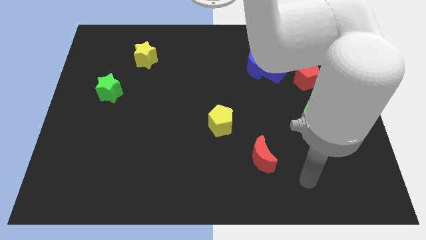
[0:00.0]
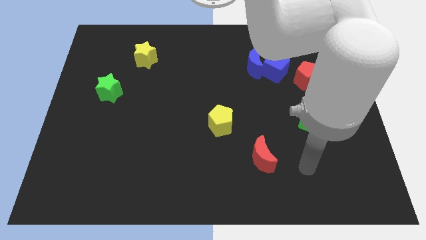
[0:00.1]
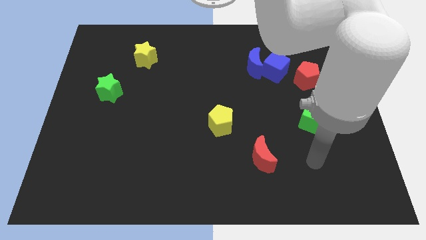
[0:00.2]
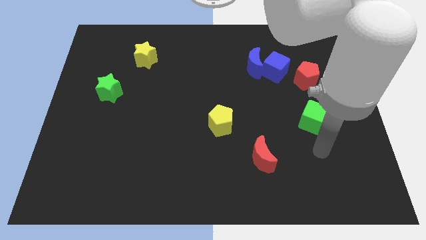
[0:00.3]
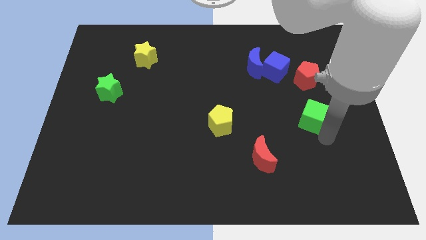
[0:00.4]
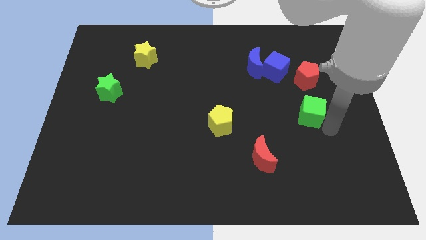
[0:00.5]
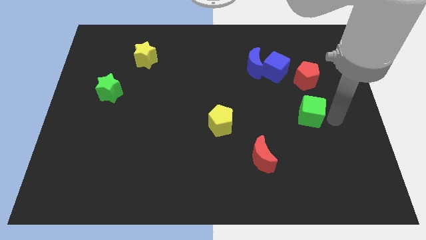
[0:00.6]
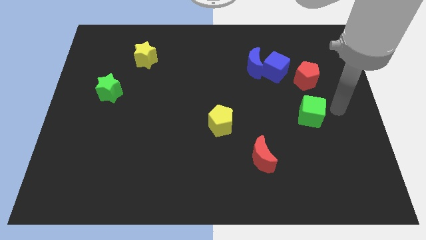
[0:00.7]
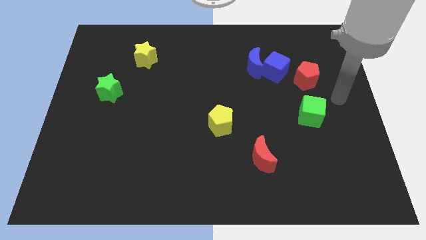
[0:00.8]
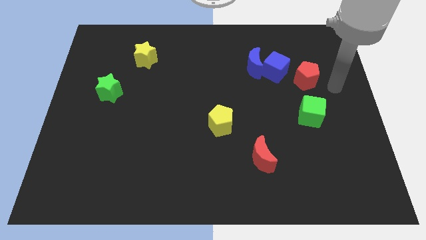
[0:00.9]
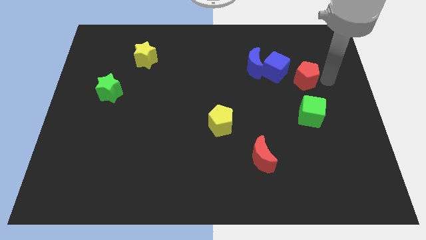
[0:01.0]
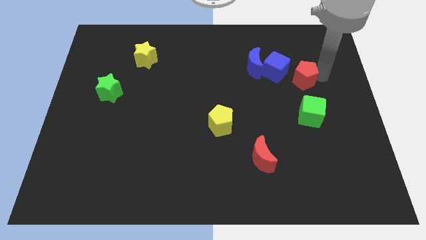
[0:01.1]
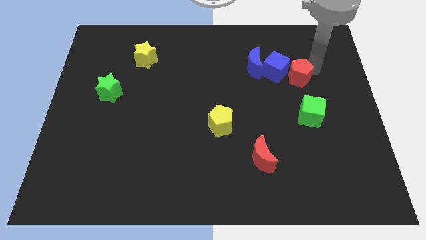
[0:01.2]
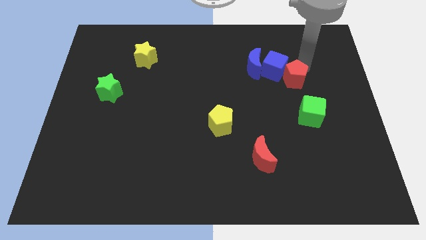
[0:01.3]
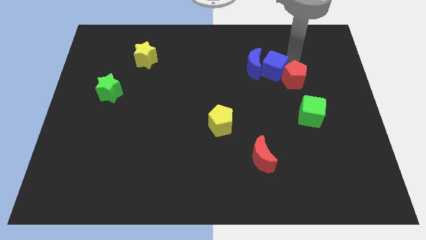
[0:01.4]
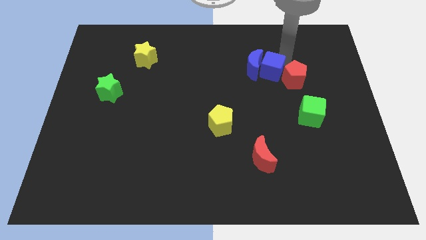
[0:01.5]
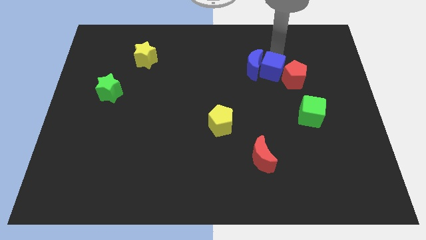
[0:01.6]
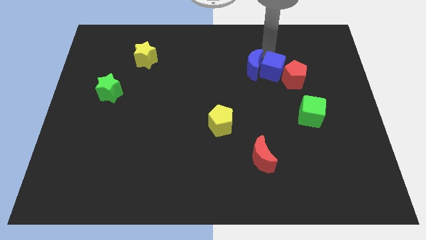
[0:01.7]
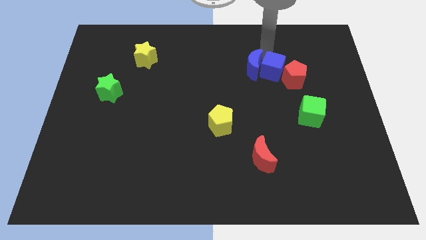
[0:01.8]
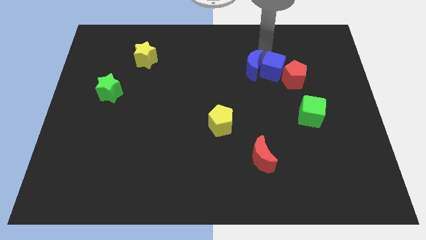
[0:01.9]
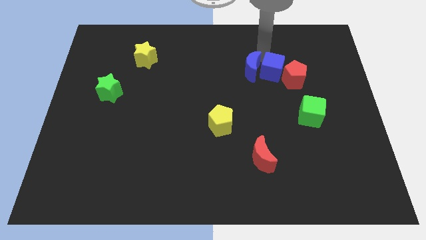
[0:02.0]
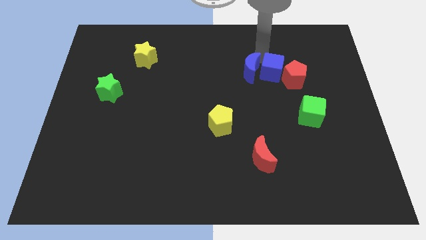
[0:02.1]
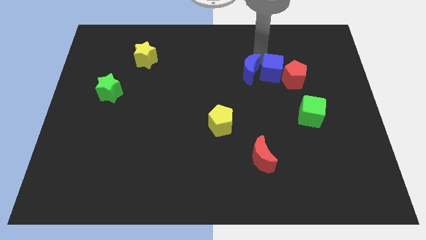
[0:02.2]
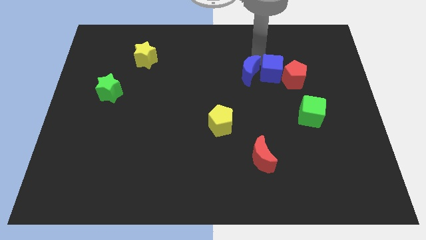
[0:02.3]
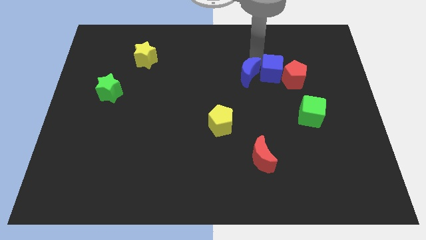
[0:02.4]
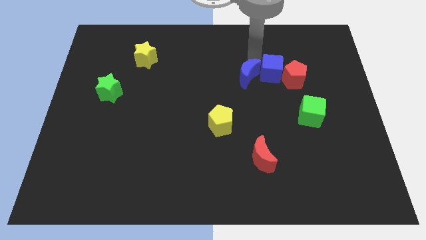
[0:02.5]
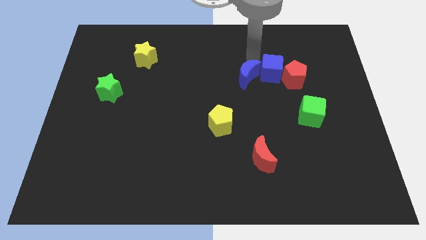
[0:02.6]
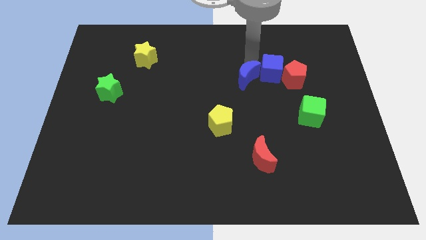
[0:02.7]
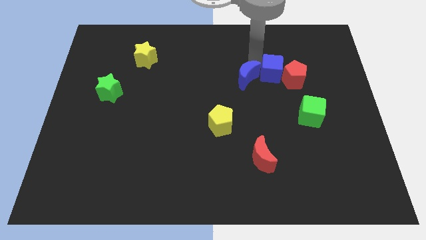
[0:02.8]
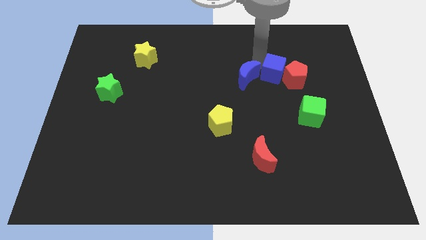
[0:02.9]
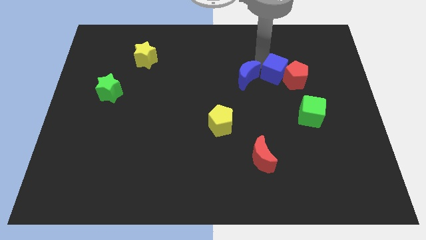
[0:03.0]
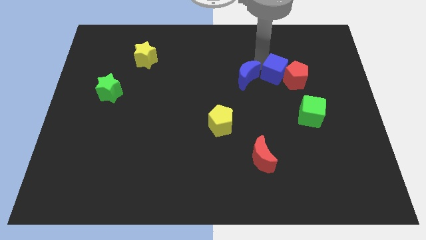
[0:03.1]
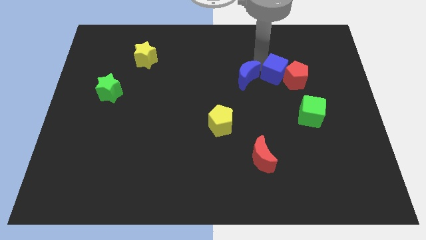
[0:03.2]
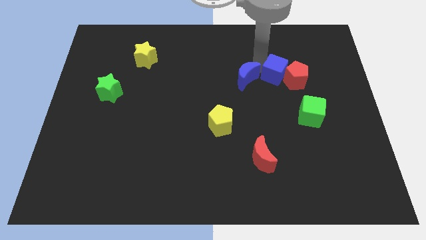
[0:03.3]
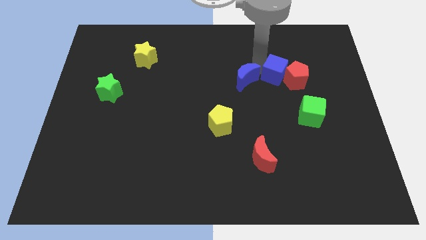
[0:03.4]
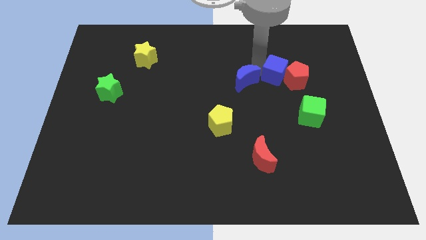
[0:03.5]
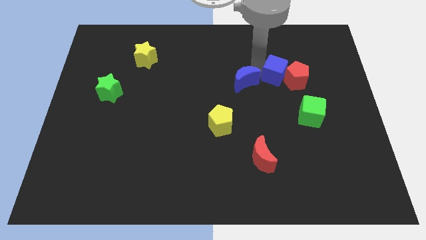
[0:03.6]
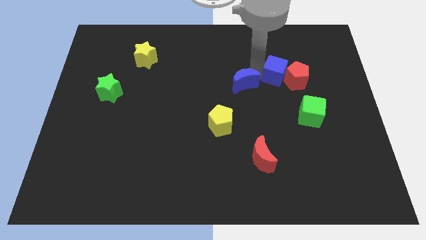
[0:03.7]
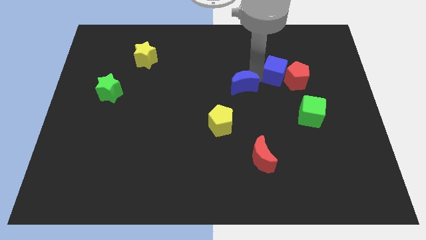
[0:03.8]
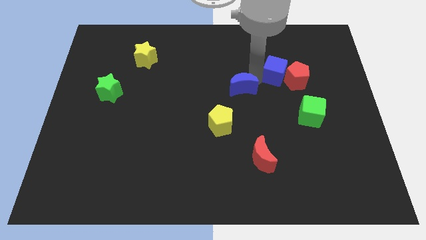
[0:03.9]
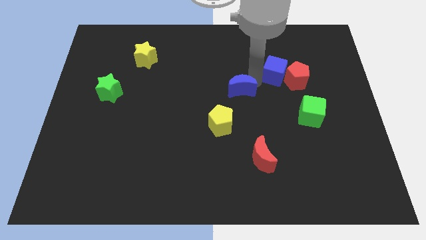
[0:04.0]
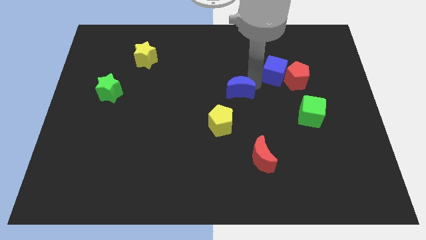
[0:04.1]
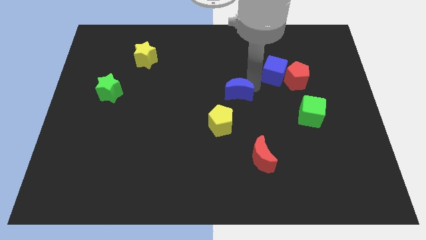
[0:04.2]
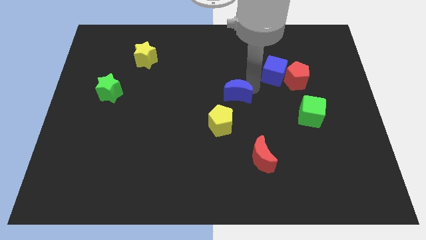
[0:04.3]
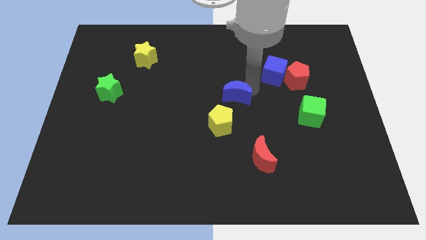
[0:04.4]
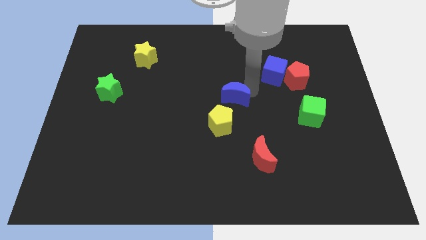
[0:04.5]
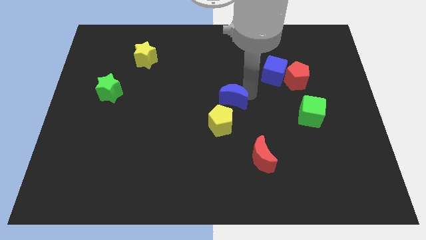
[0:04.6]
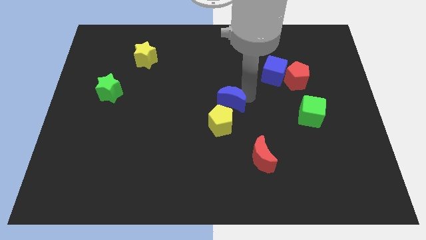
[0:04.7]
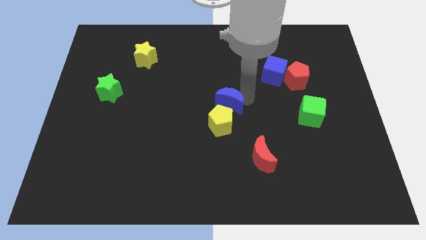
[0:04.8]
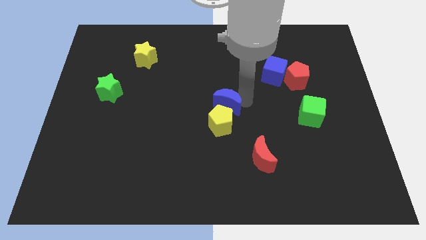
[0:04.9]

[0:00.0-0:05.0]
put the blue moon next to the yellow pentagon

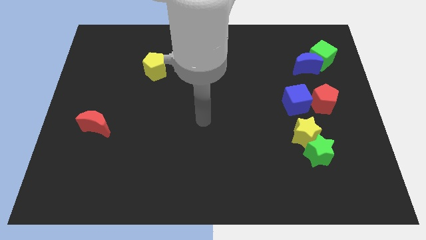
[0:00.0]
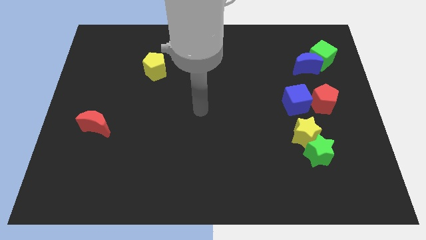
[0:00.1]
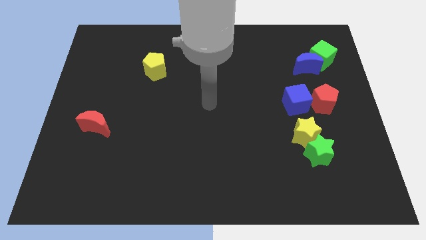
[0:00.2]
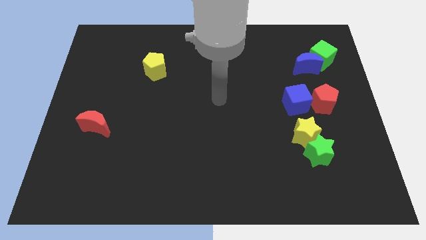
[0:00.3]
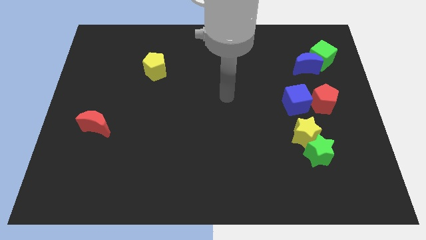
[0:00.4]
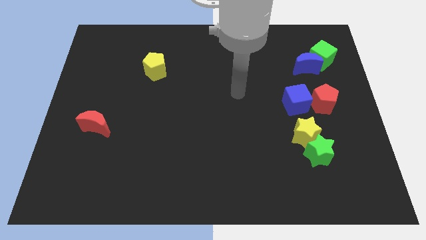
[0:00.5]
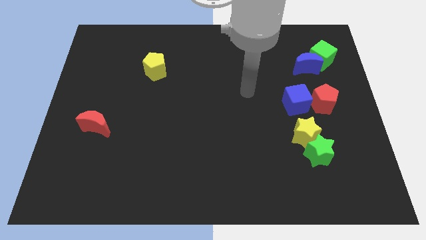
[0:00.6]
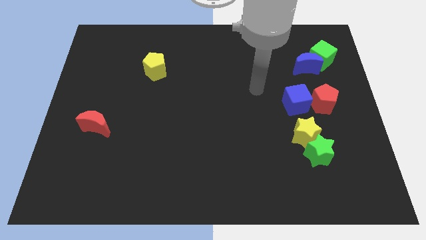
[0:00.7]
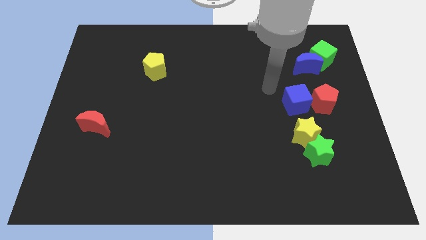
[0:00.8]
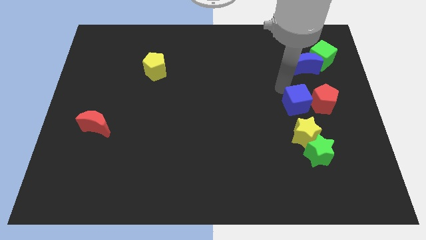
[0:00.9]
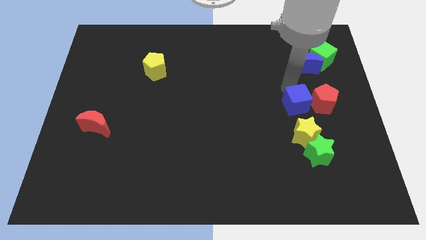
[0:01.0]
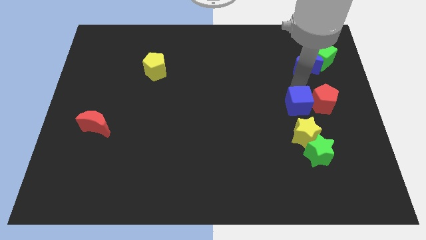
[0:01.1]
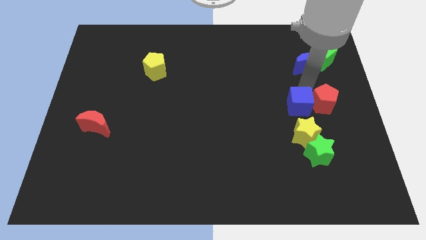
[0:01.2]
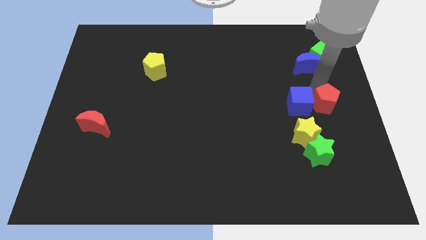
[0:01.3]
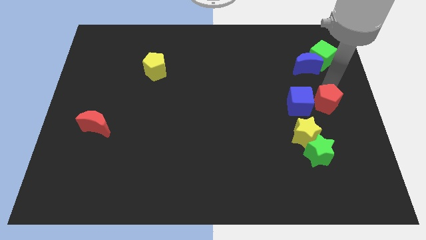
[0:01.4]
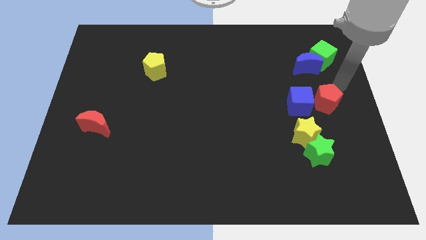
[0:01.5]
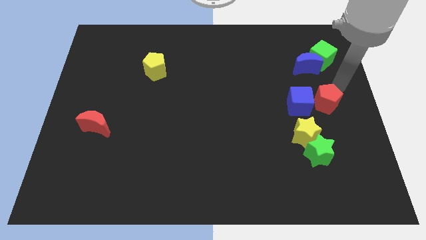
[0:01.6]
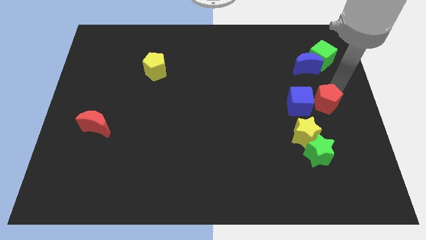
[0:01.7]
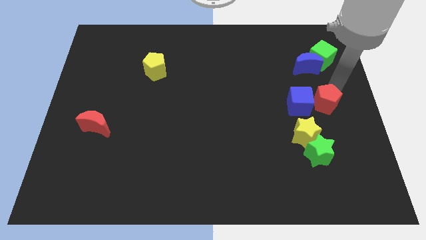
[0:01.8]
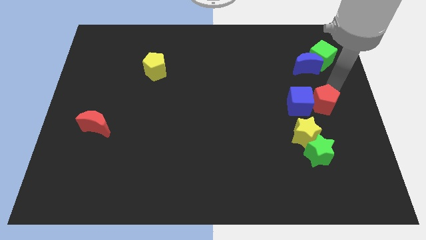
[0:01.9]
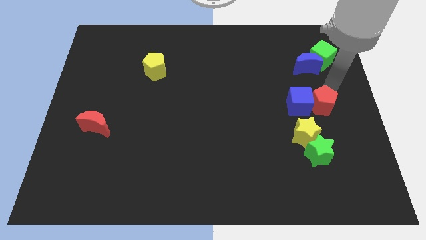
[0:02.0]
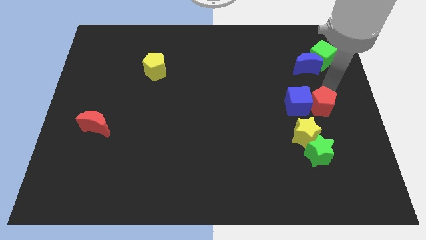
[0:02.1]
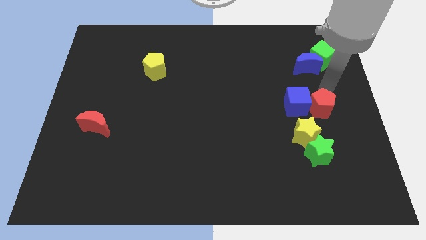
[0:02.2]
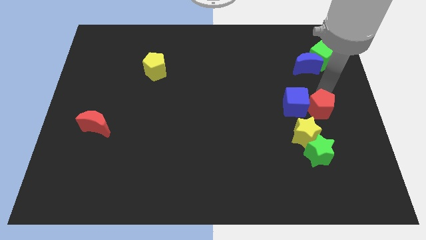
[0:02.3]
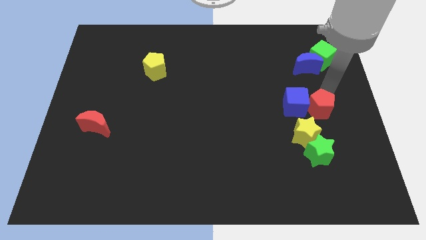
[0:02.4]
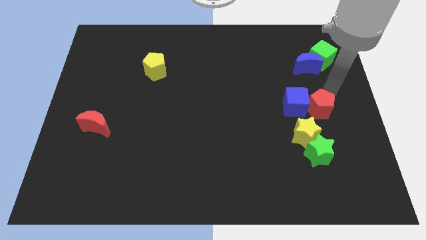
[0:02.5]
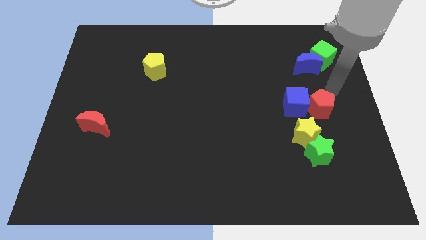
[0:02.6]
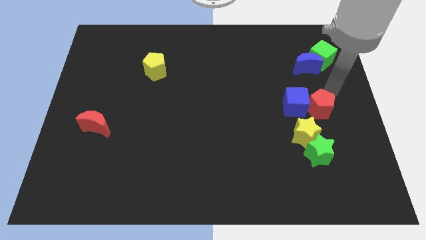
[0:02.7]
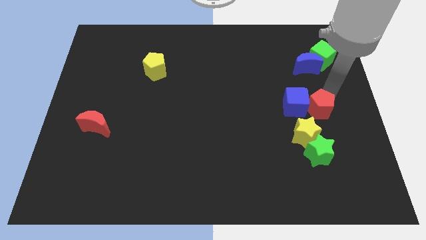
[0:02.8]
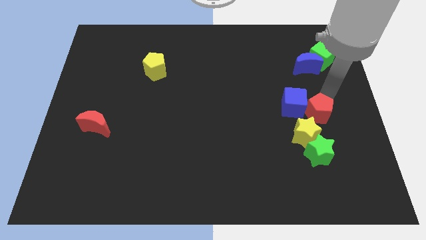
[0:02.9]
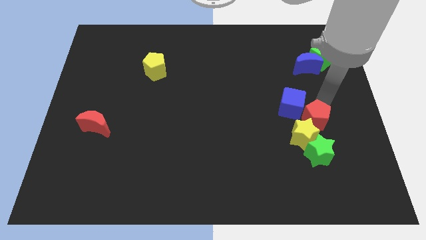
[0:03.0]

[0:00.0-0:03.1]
slide the red pentagon close to the yellow star
